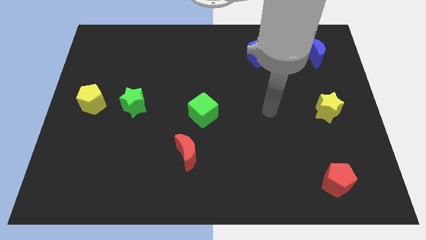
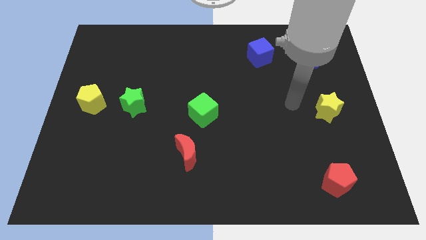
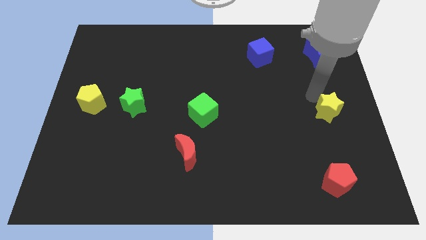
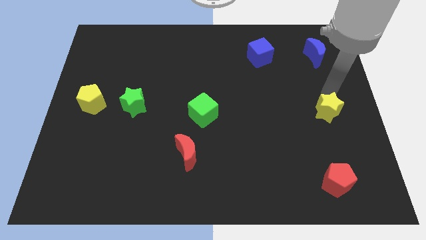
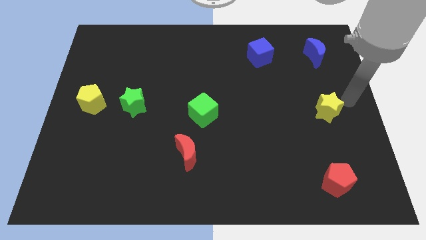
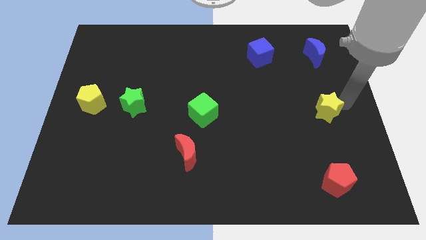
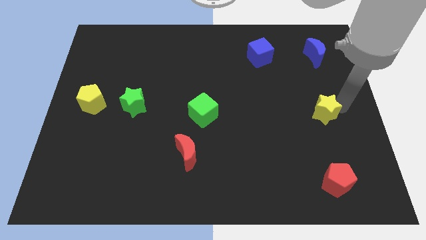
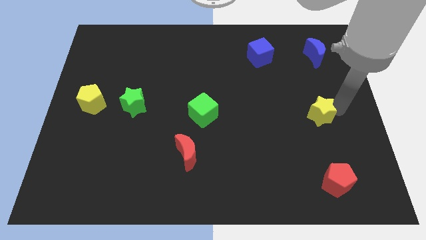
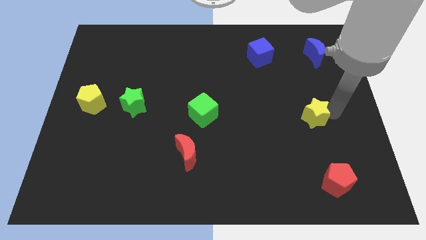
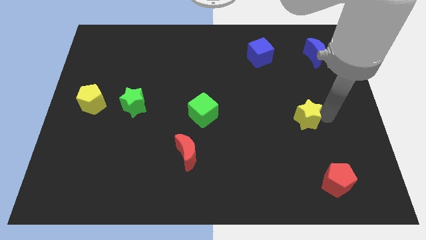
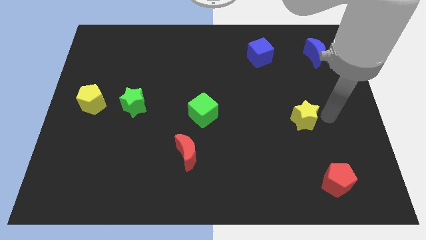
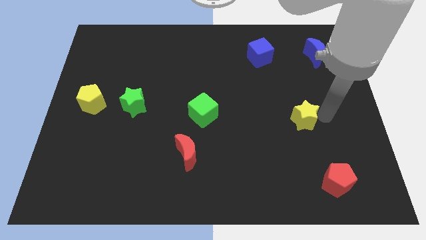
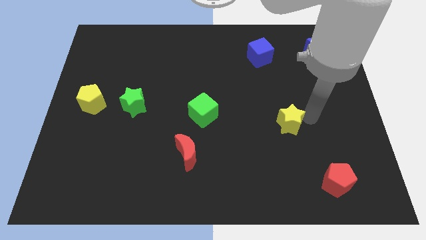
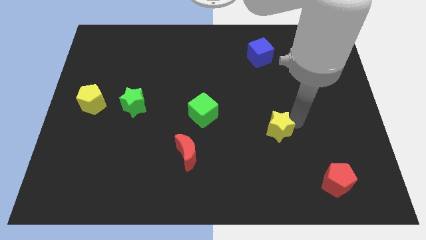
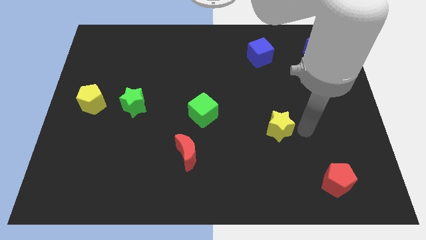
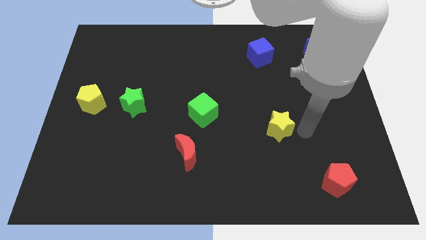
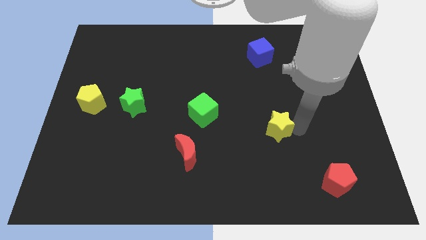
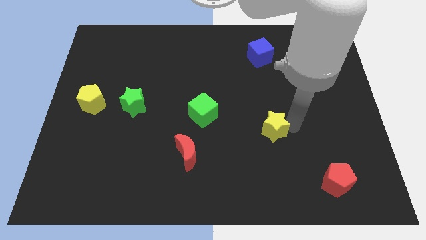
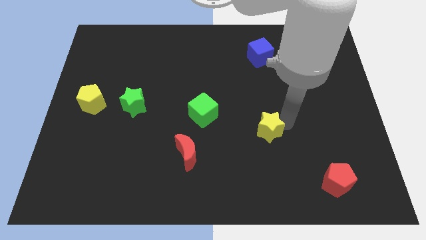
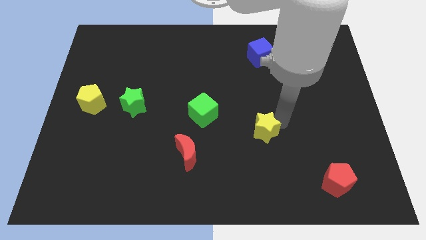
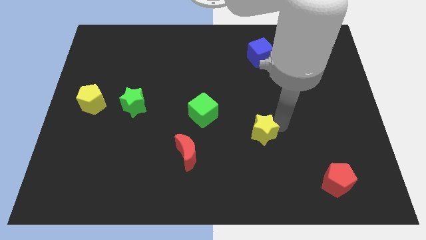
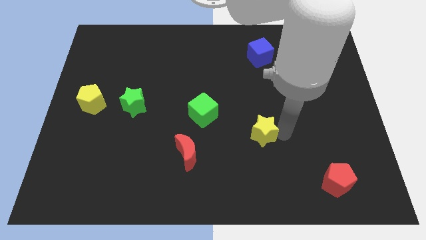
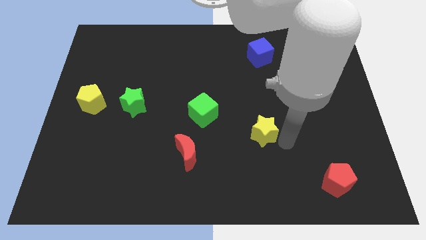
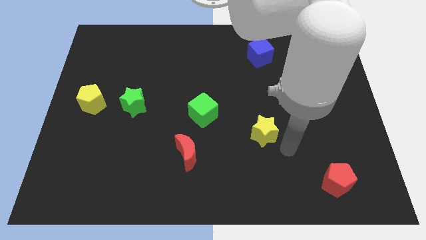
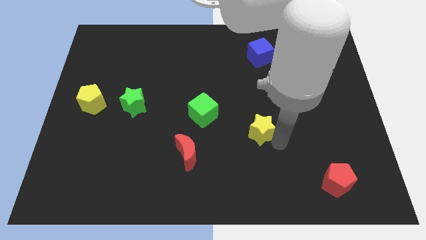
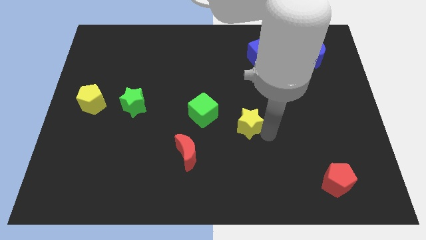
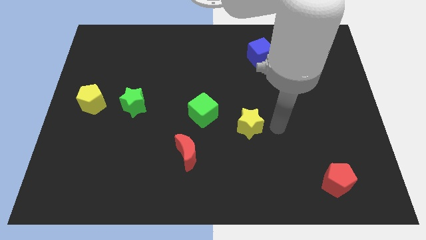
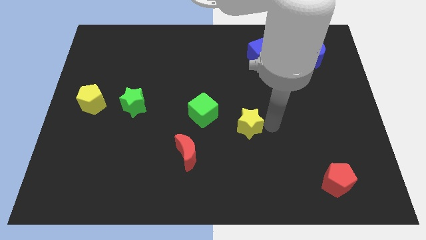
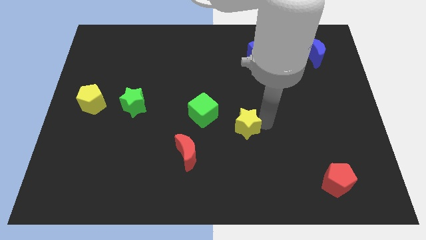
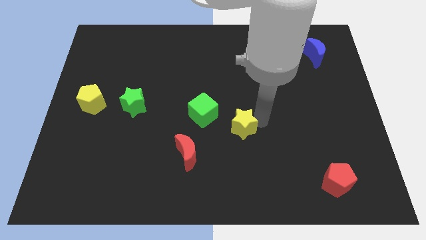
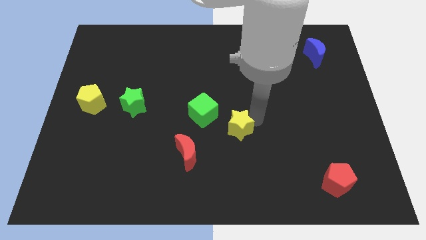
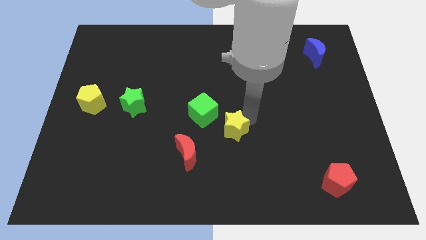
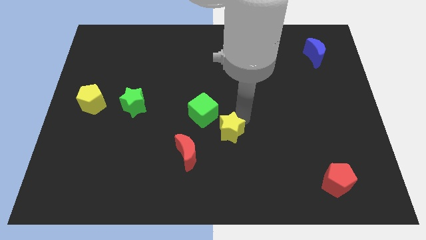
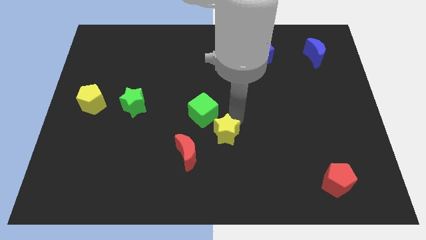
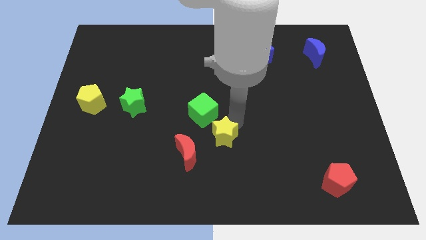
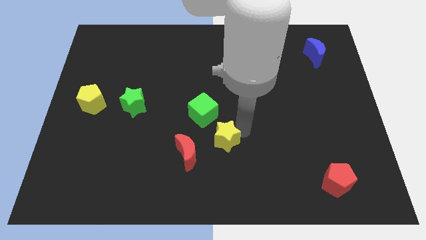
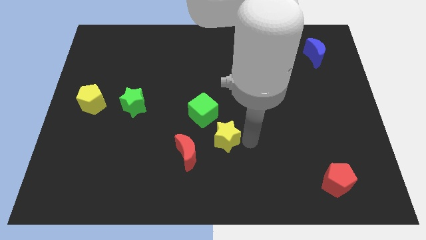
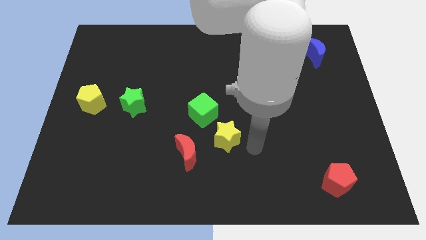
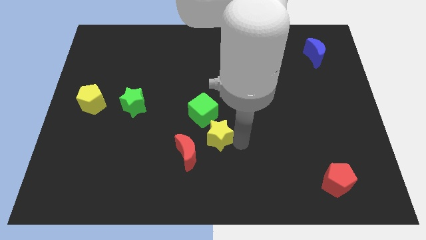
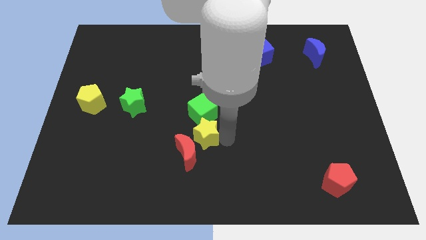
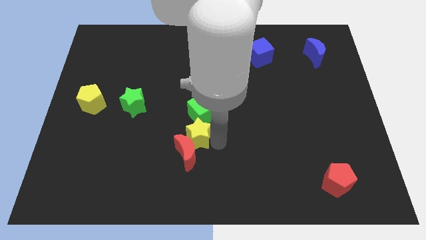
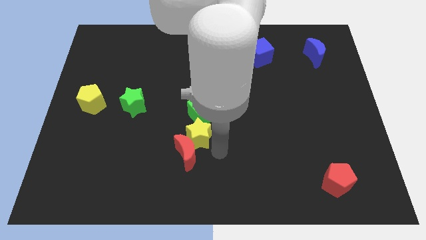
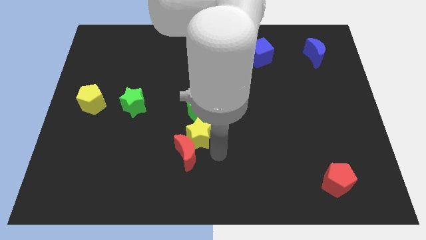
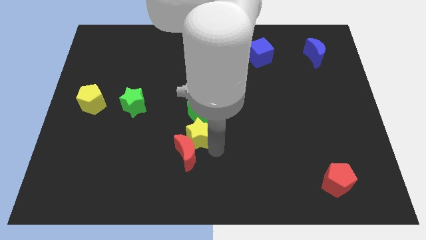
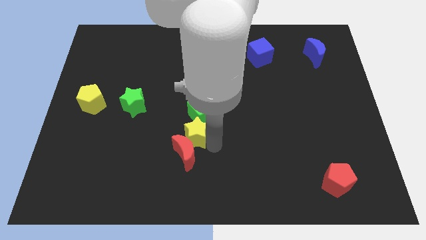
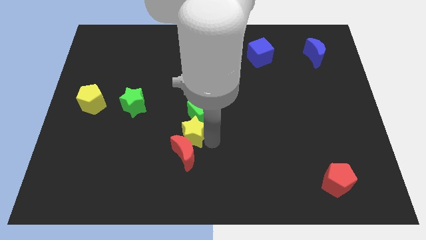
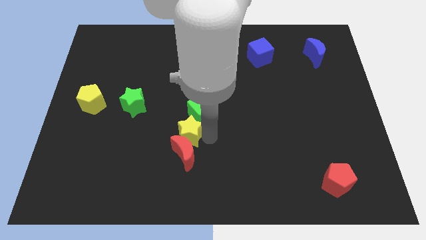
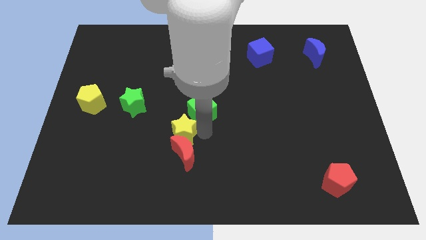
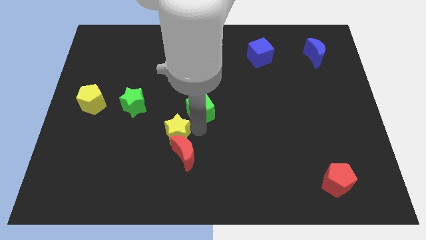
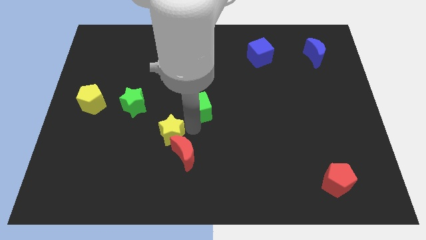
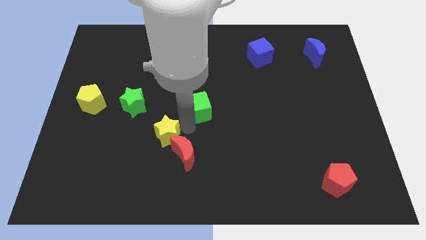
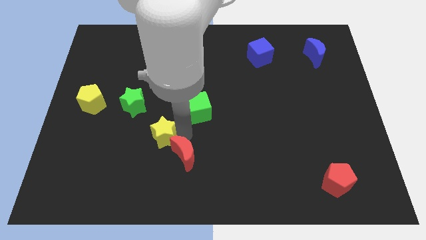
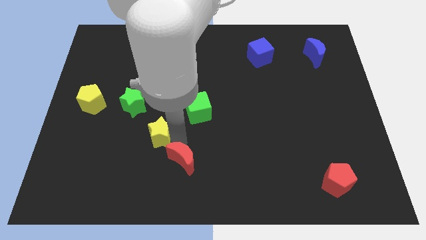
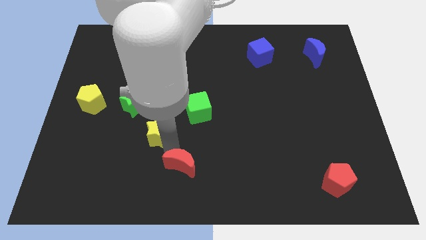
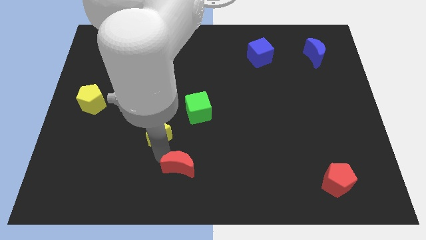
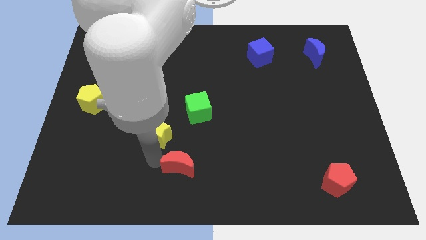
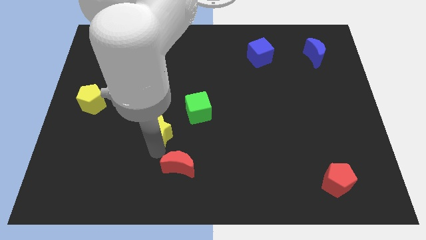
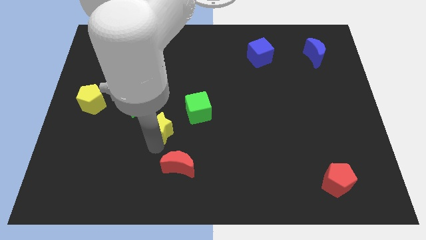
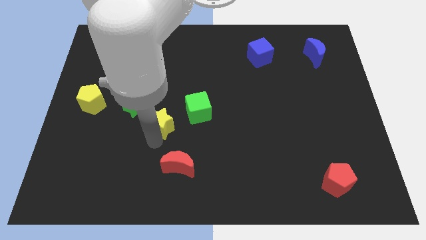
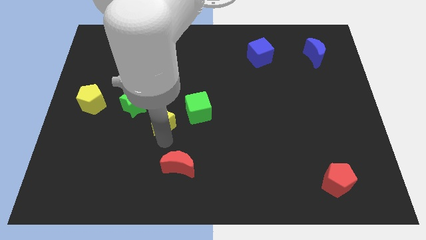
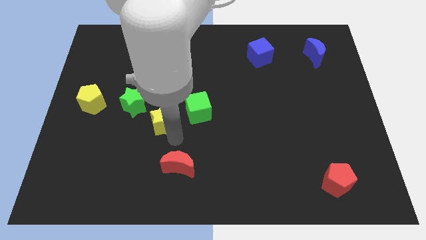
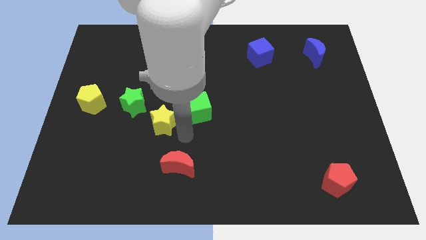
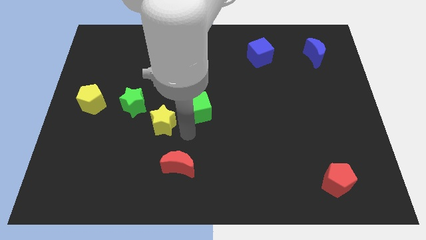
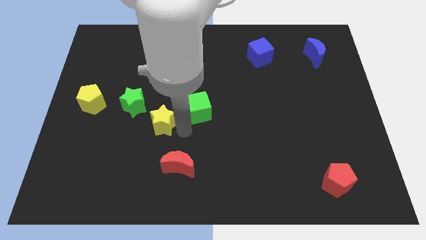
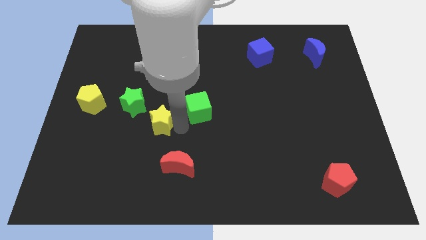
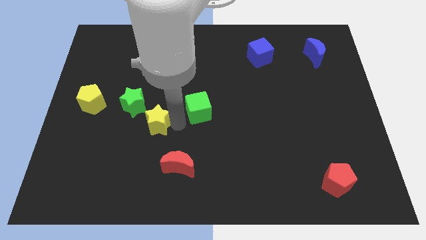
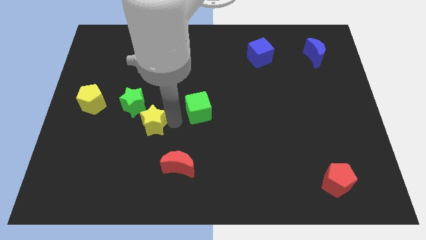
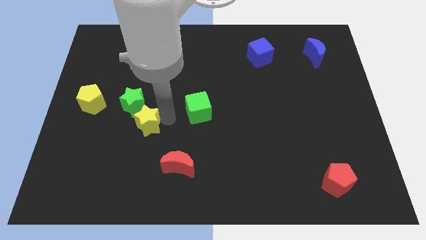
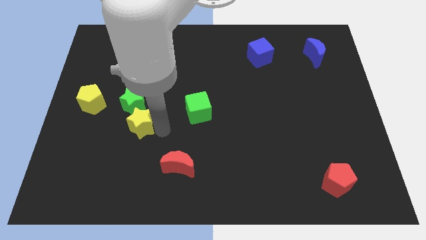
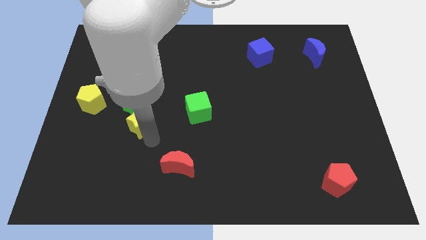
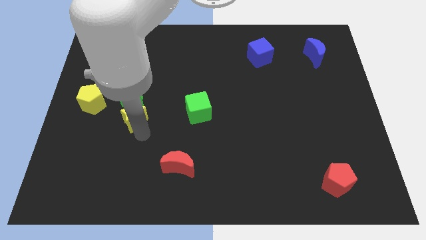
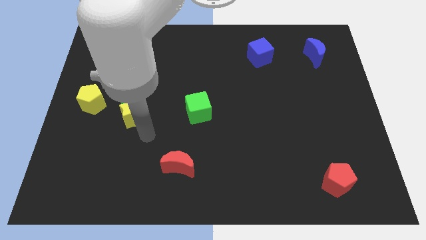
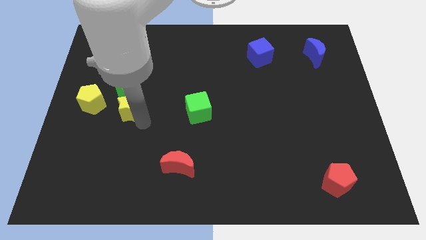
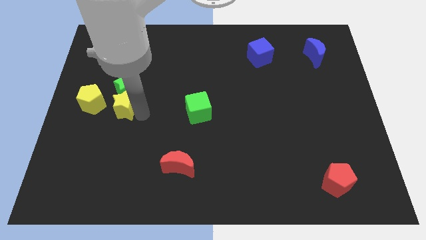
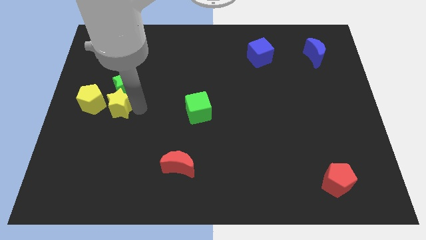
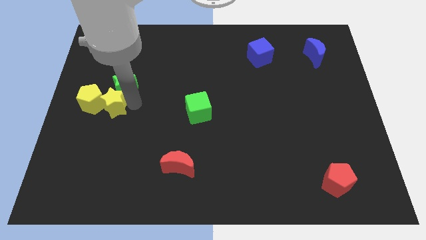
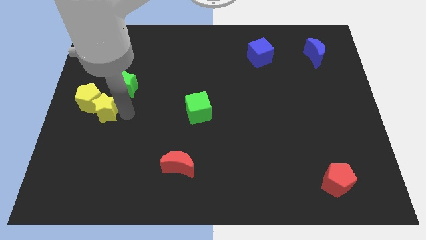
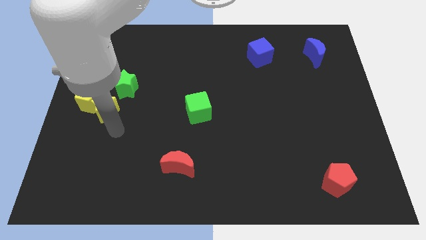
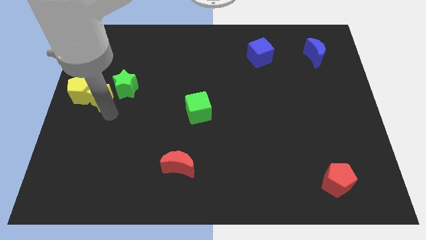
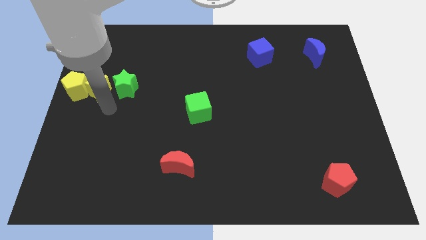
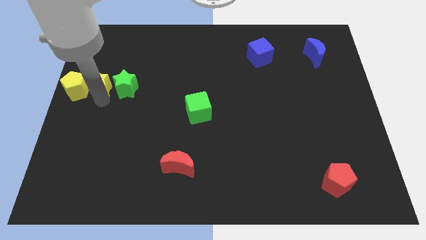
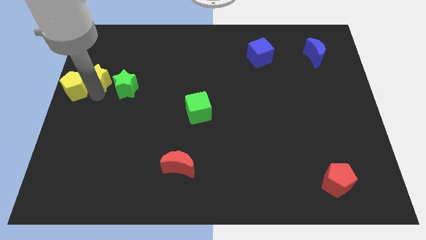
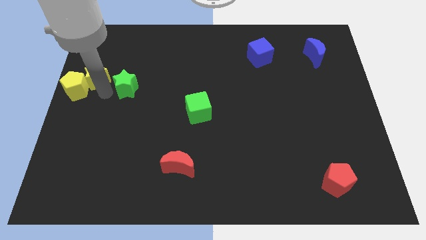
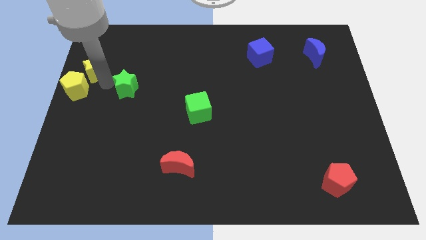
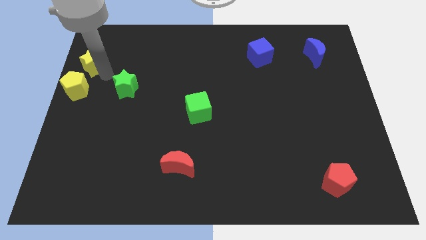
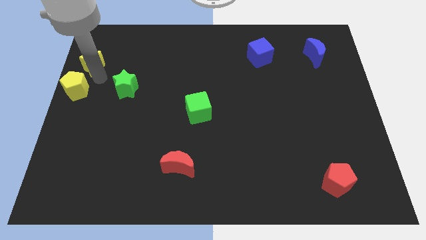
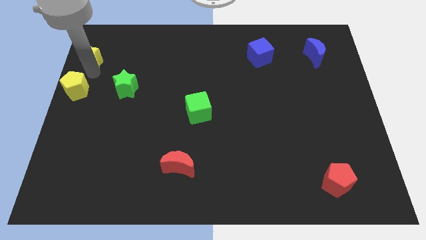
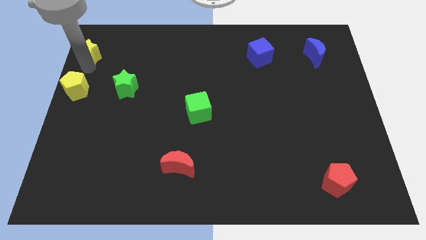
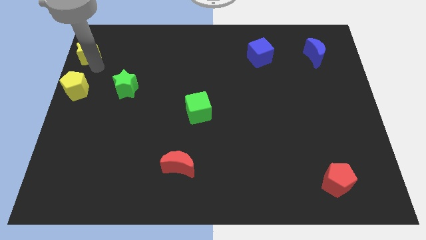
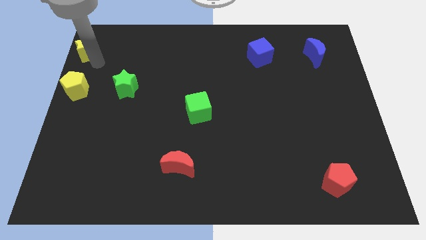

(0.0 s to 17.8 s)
push the yellow star to the top left corner
